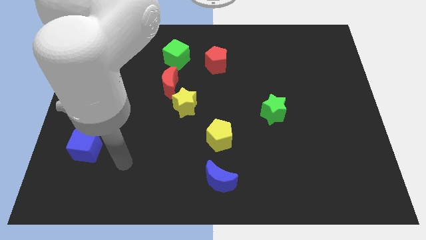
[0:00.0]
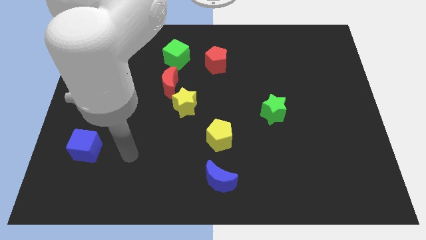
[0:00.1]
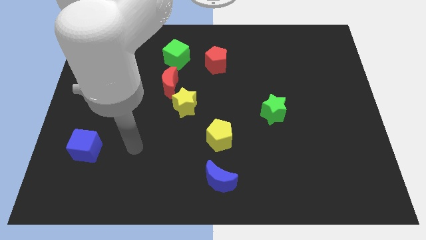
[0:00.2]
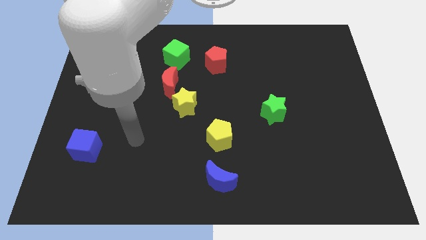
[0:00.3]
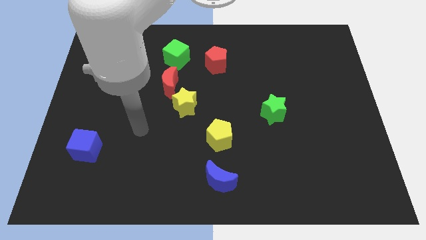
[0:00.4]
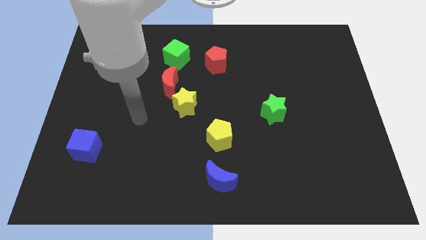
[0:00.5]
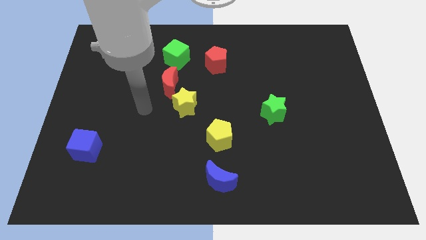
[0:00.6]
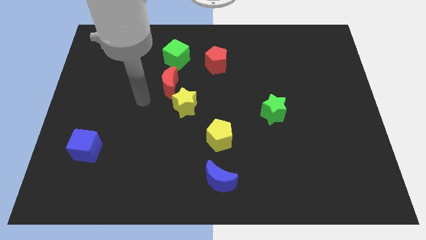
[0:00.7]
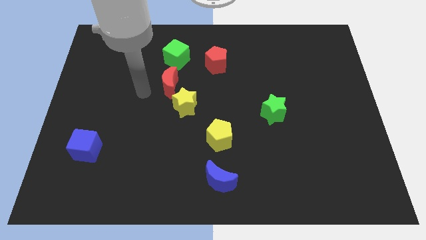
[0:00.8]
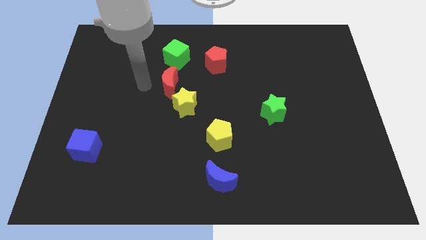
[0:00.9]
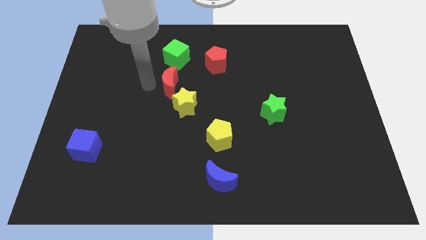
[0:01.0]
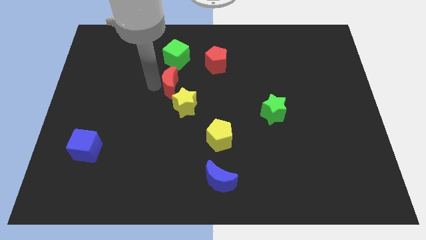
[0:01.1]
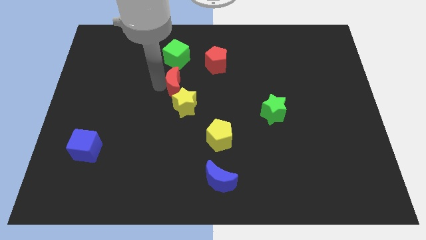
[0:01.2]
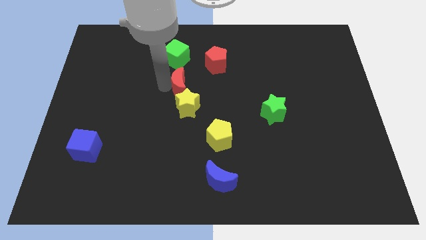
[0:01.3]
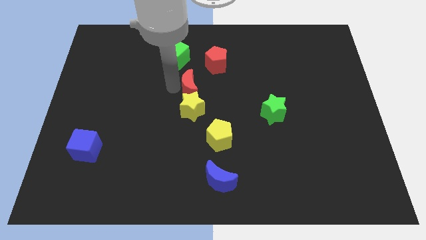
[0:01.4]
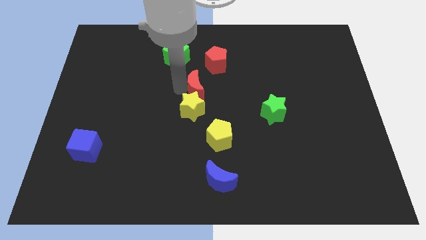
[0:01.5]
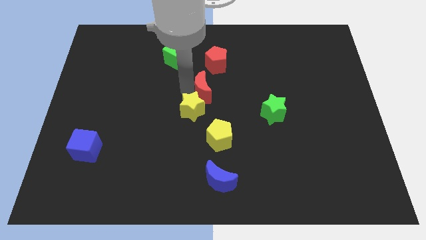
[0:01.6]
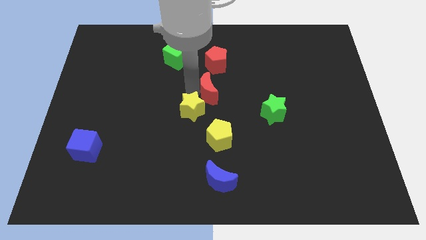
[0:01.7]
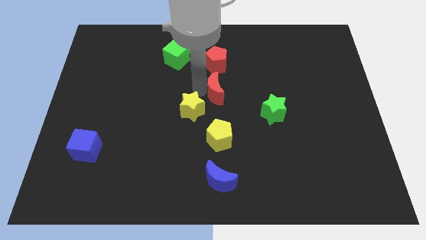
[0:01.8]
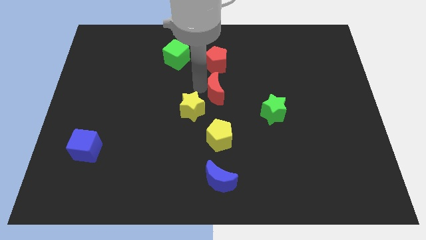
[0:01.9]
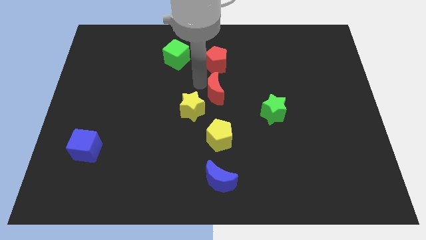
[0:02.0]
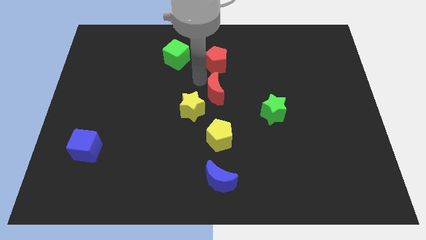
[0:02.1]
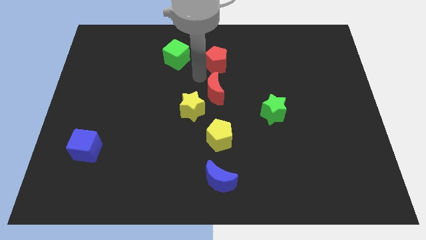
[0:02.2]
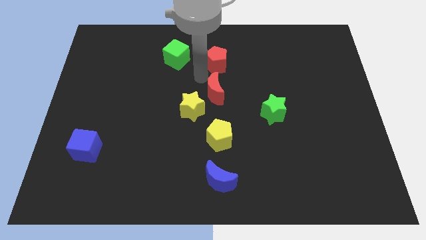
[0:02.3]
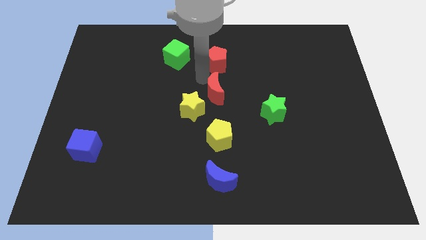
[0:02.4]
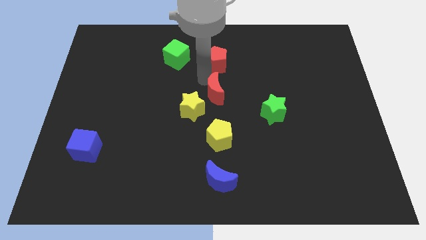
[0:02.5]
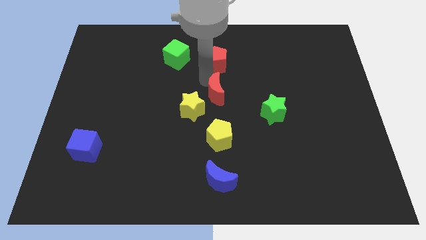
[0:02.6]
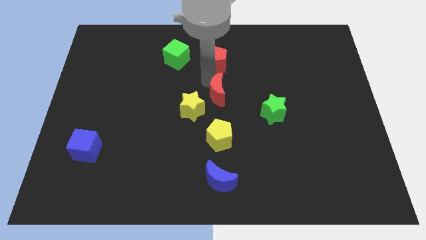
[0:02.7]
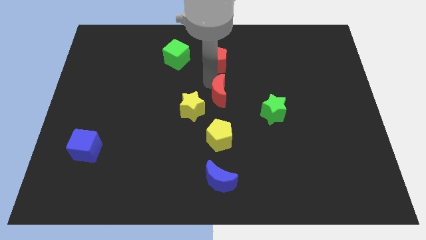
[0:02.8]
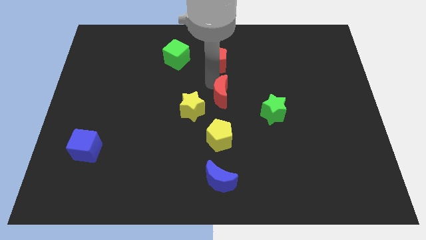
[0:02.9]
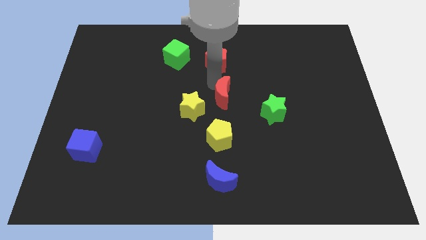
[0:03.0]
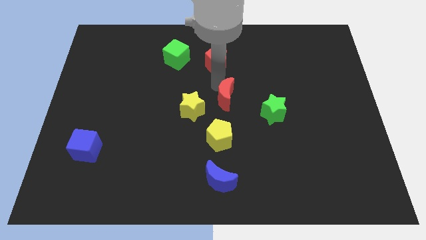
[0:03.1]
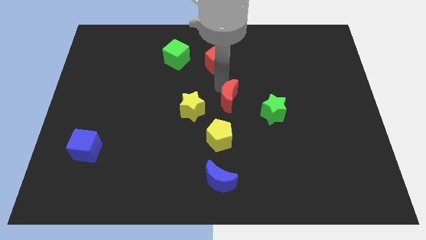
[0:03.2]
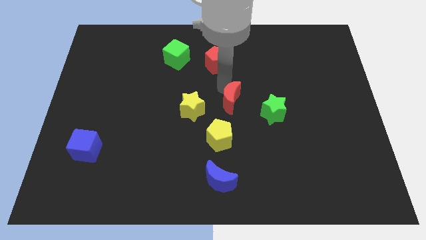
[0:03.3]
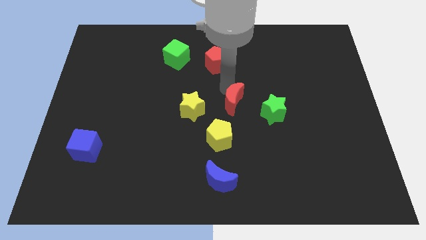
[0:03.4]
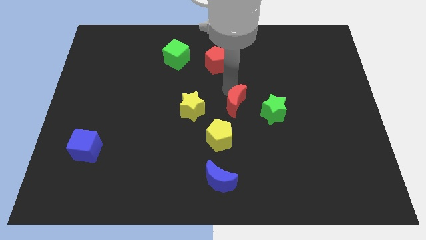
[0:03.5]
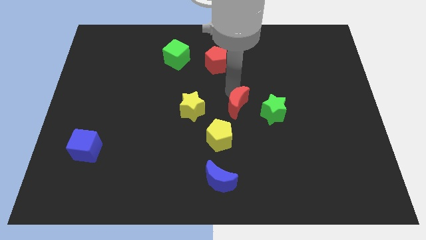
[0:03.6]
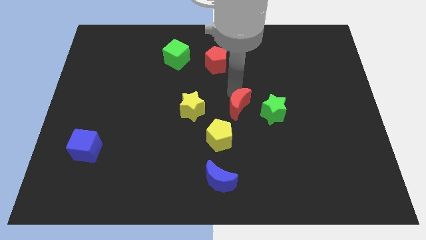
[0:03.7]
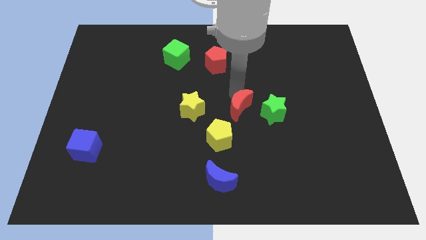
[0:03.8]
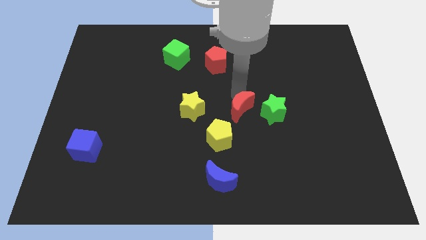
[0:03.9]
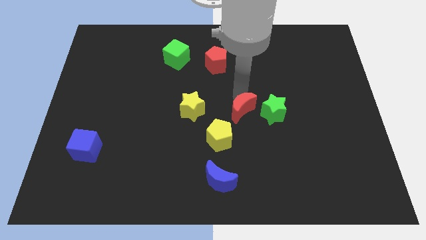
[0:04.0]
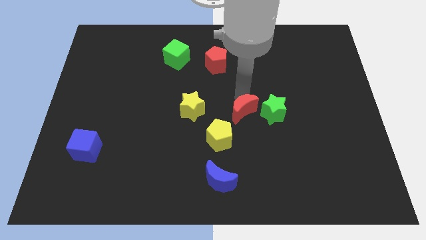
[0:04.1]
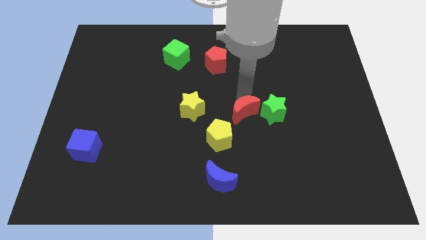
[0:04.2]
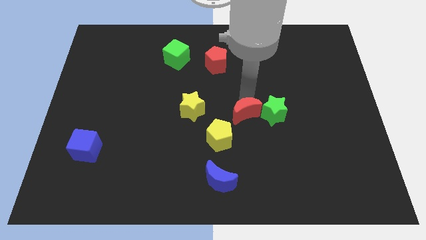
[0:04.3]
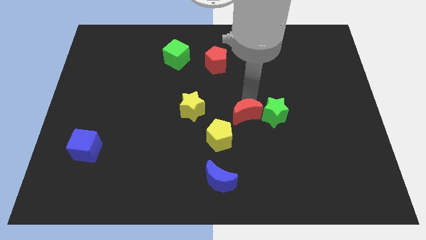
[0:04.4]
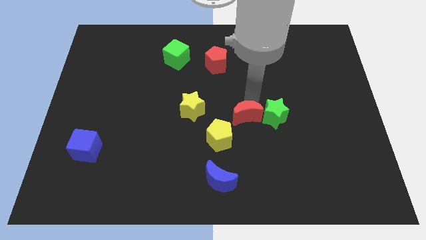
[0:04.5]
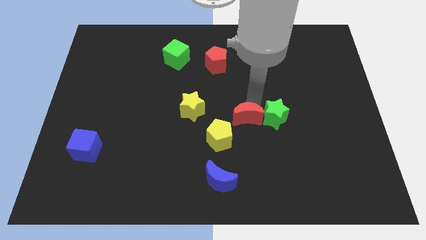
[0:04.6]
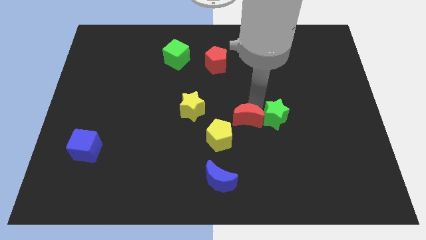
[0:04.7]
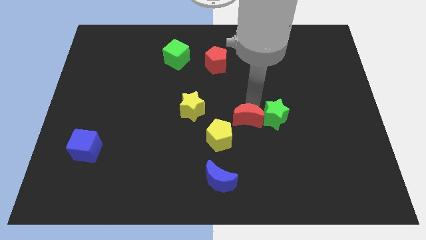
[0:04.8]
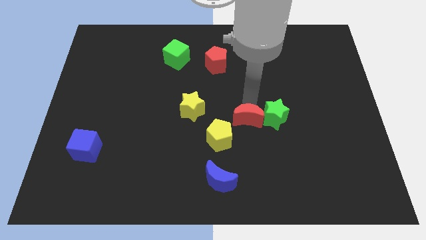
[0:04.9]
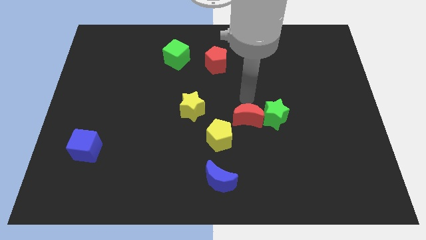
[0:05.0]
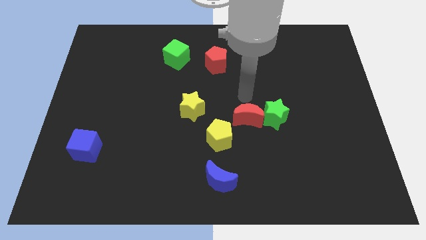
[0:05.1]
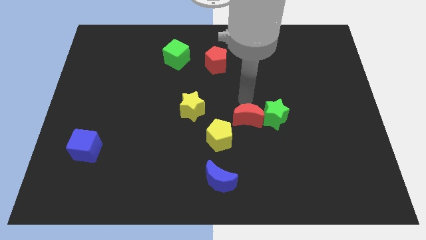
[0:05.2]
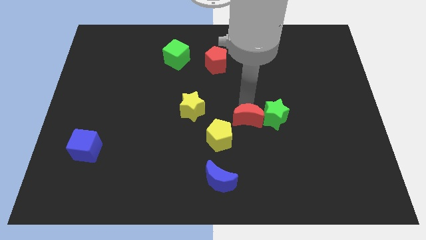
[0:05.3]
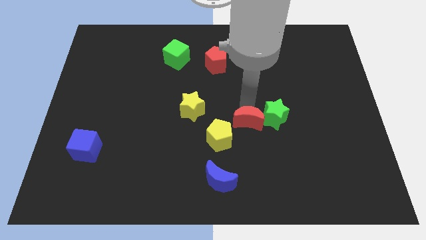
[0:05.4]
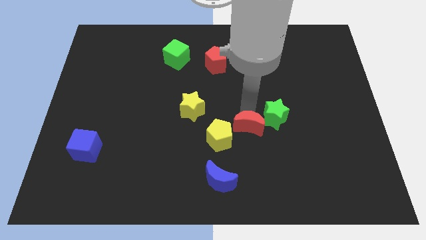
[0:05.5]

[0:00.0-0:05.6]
move the red moon diagonally downwards and right

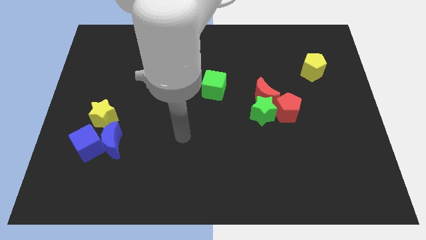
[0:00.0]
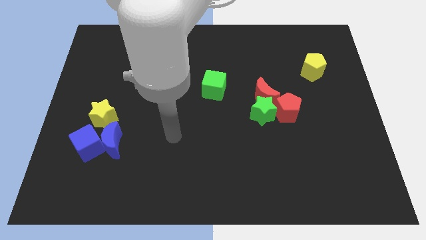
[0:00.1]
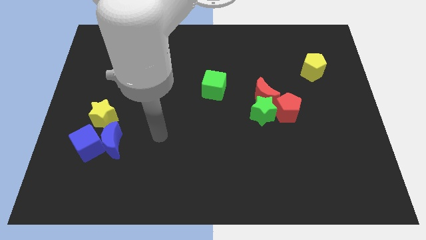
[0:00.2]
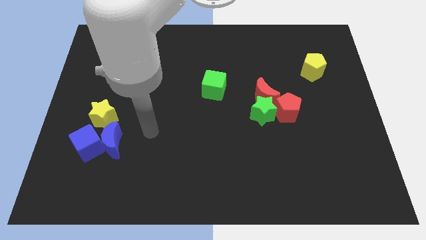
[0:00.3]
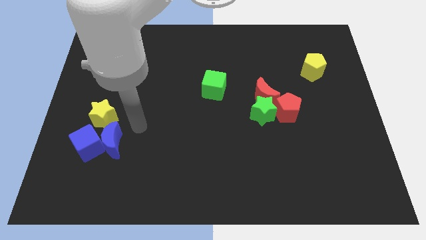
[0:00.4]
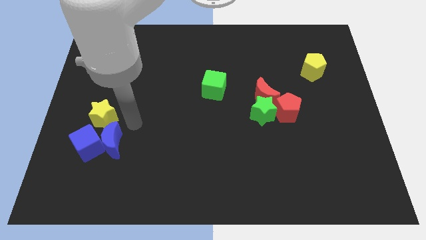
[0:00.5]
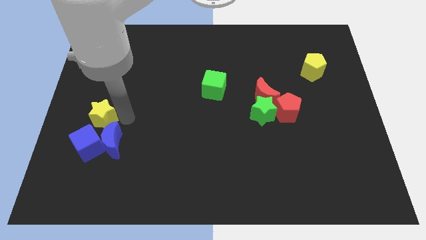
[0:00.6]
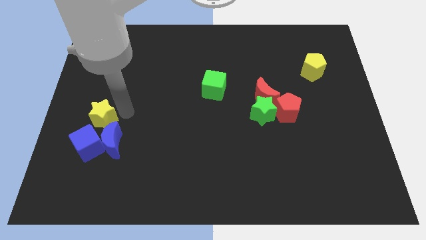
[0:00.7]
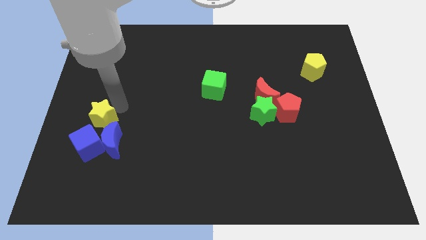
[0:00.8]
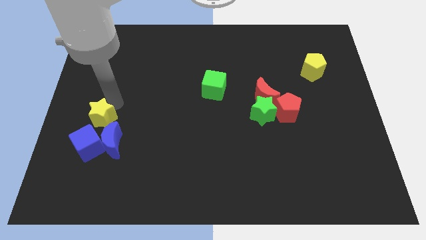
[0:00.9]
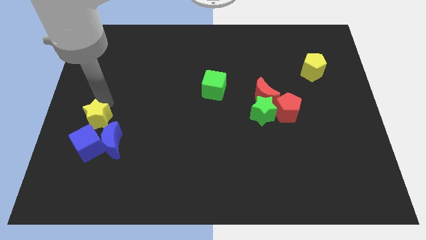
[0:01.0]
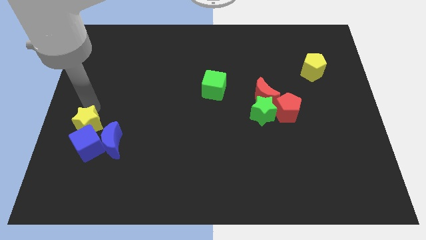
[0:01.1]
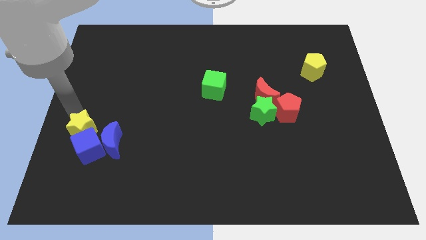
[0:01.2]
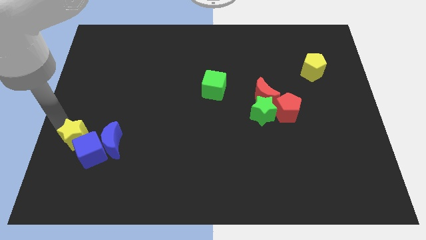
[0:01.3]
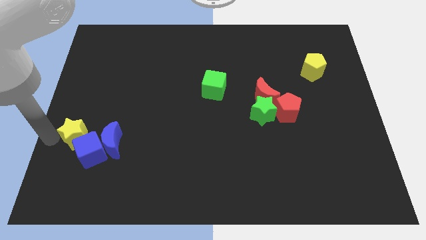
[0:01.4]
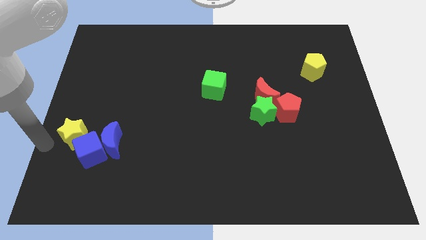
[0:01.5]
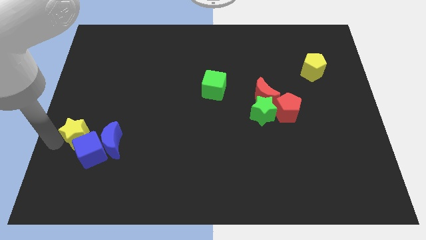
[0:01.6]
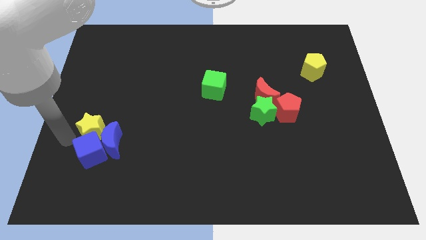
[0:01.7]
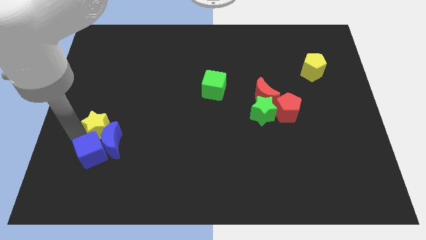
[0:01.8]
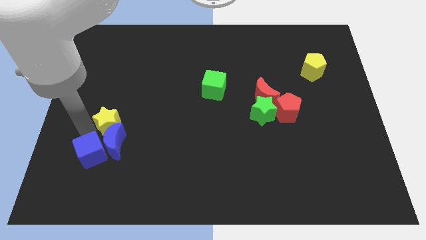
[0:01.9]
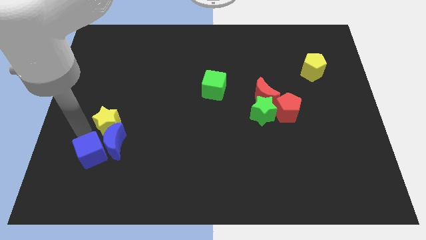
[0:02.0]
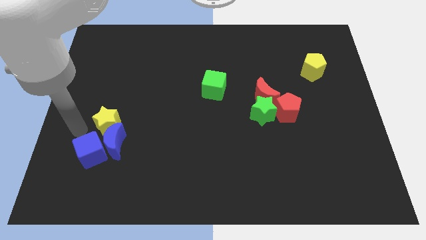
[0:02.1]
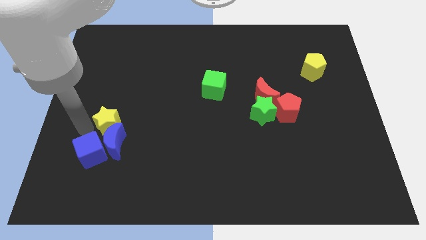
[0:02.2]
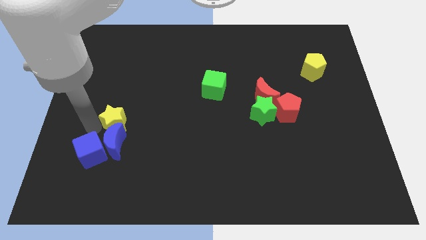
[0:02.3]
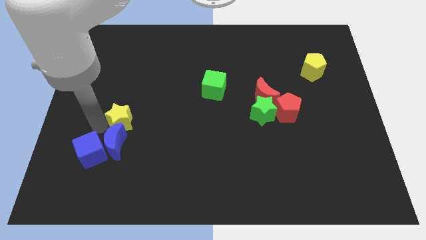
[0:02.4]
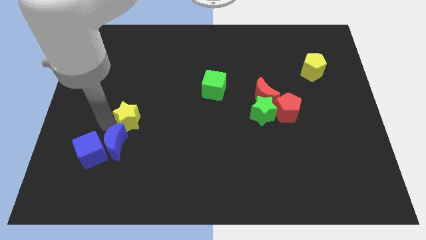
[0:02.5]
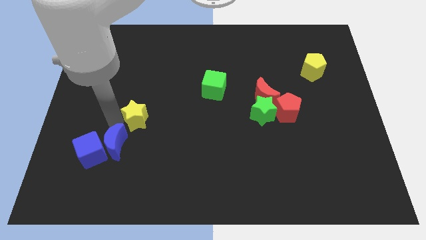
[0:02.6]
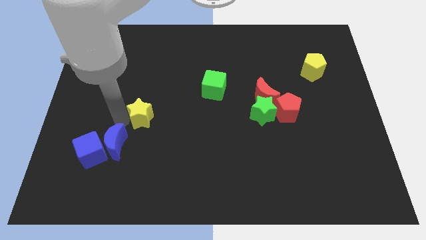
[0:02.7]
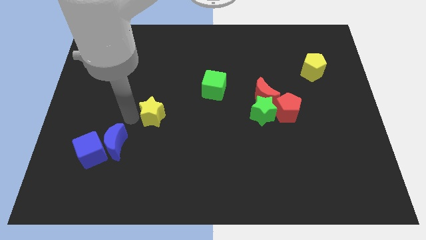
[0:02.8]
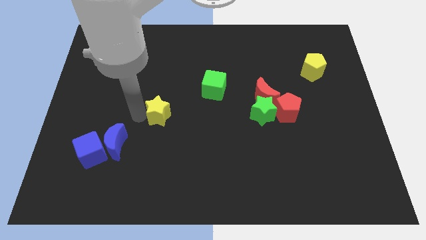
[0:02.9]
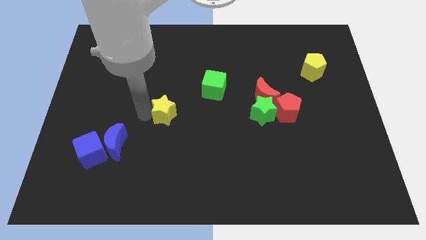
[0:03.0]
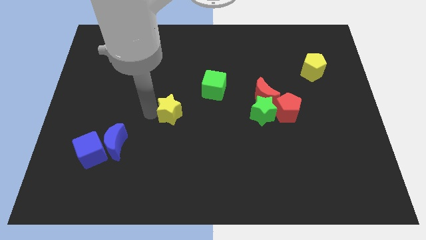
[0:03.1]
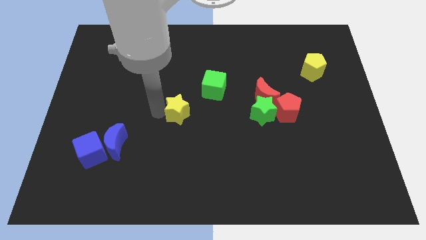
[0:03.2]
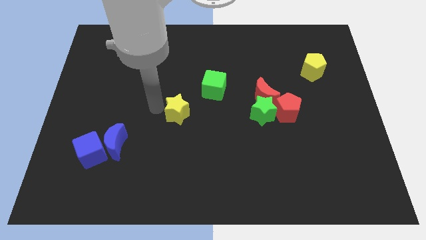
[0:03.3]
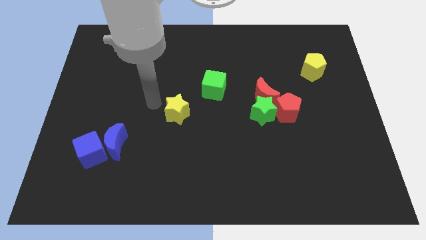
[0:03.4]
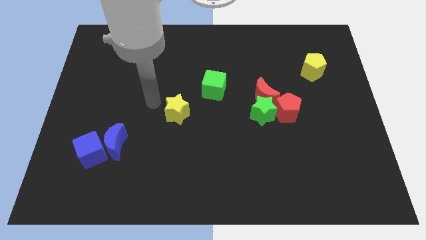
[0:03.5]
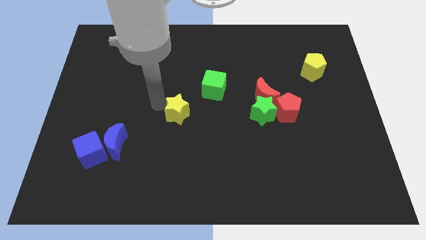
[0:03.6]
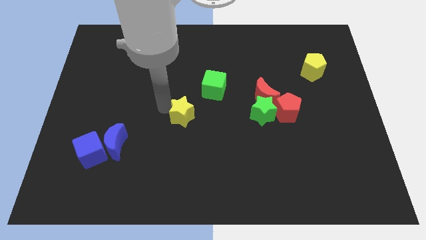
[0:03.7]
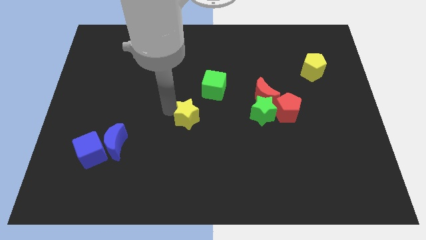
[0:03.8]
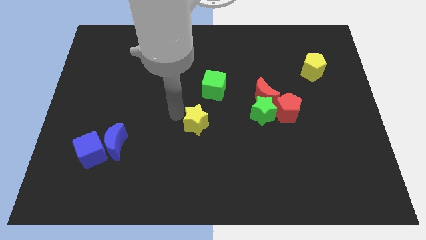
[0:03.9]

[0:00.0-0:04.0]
move the yellow star to the right
